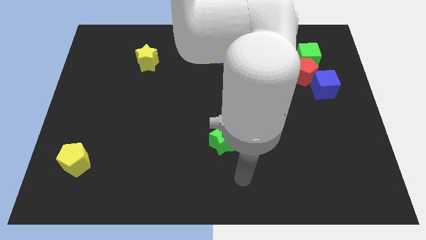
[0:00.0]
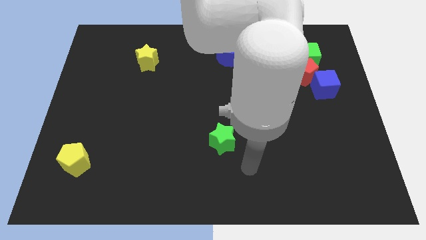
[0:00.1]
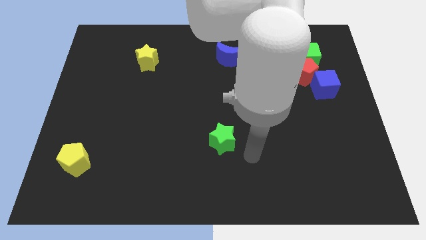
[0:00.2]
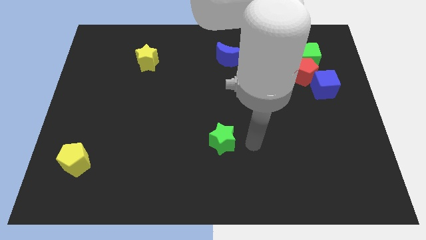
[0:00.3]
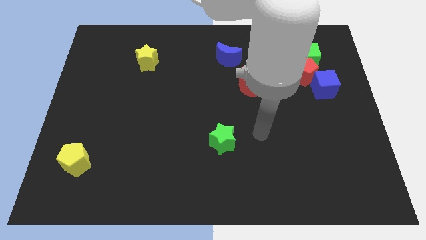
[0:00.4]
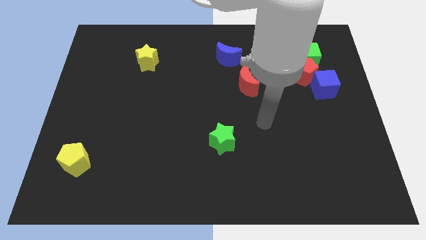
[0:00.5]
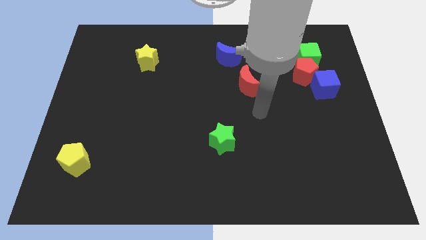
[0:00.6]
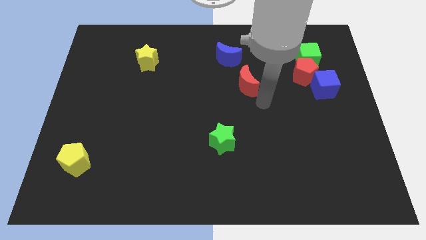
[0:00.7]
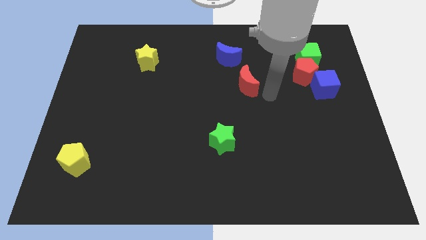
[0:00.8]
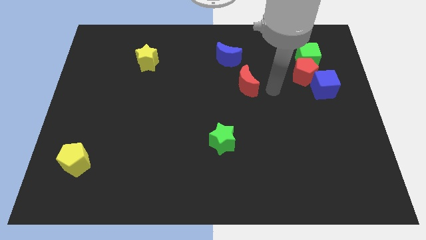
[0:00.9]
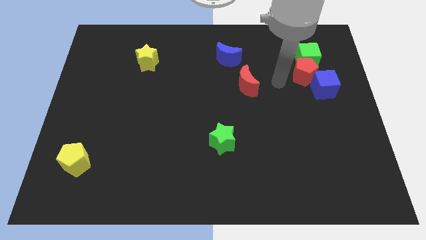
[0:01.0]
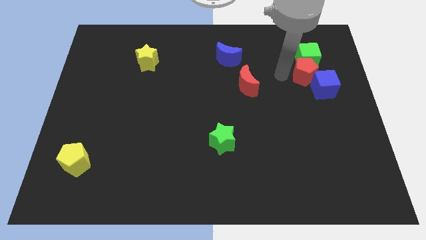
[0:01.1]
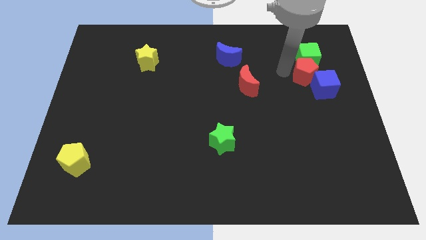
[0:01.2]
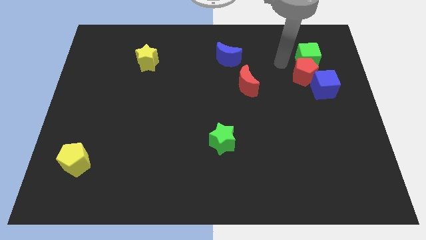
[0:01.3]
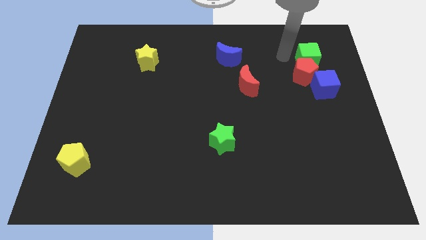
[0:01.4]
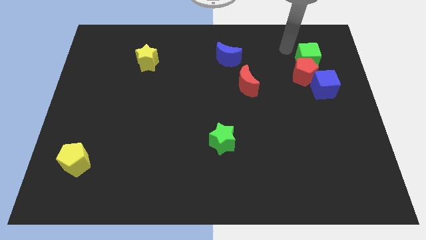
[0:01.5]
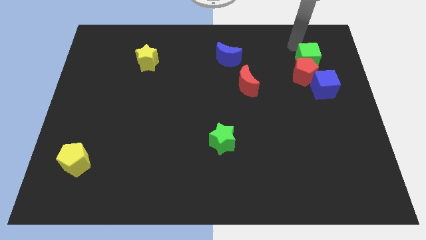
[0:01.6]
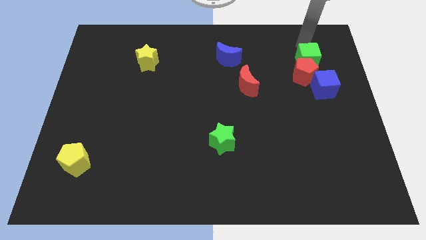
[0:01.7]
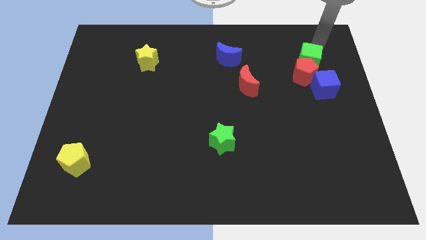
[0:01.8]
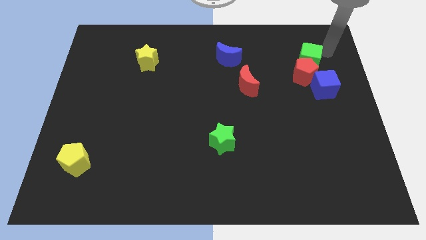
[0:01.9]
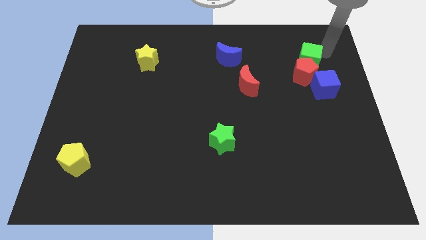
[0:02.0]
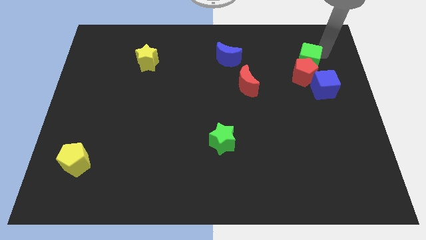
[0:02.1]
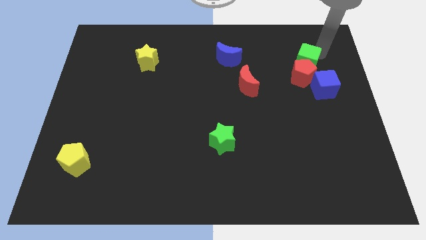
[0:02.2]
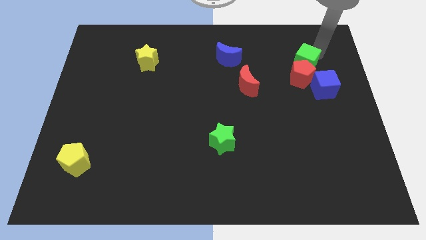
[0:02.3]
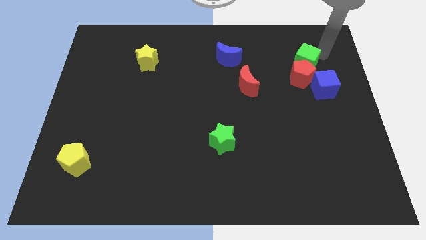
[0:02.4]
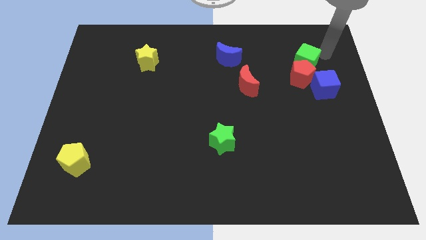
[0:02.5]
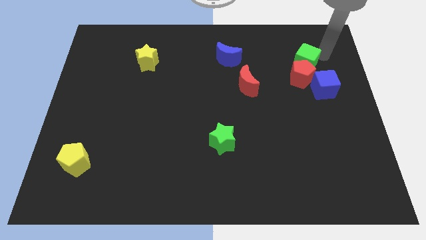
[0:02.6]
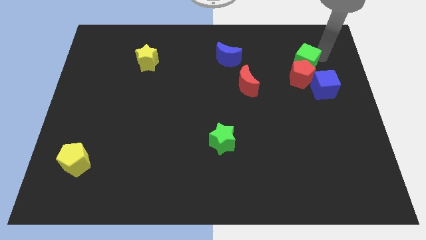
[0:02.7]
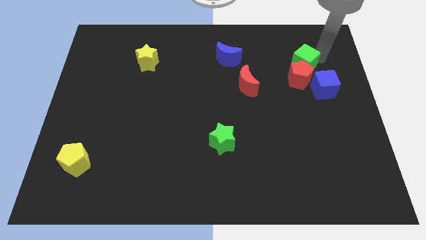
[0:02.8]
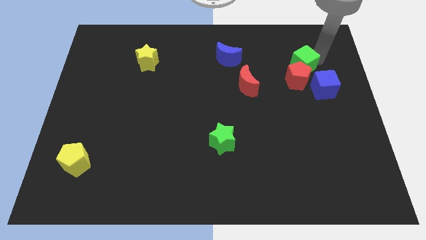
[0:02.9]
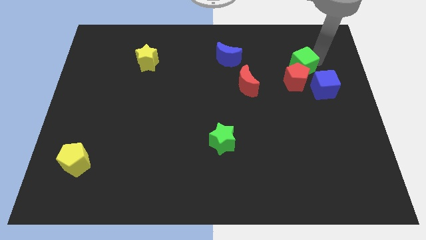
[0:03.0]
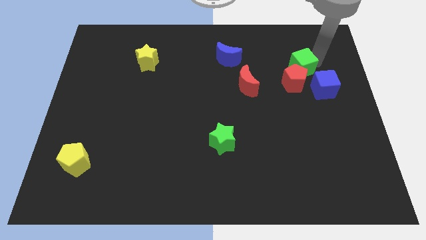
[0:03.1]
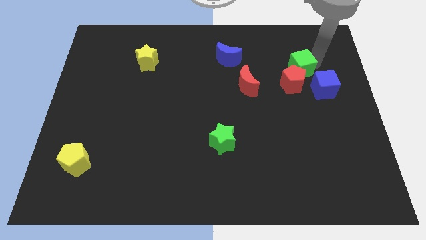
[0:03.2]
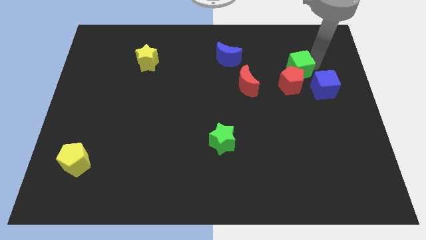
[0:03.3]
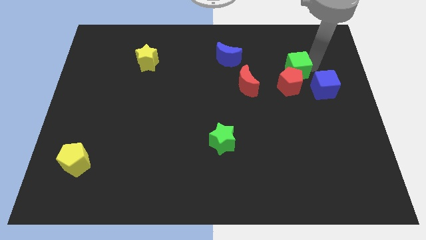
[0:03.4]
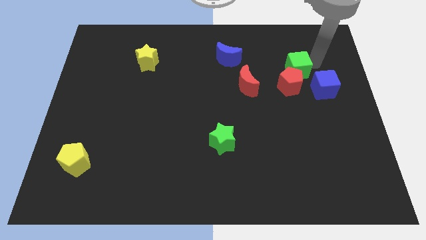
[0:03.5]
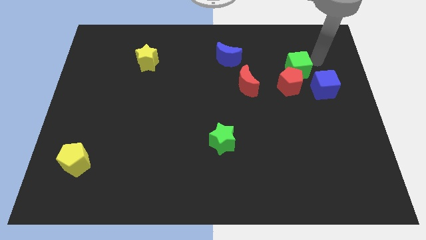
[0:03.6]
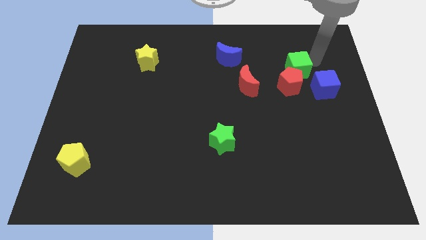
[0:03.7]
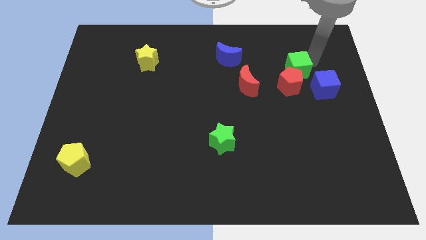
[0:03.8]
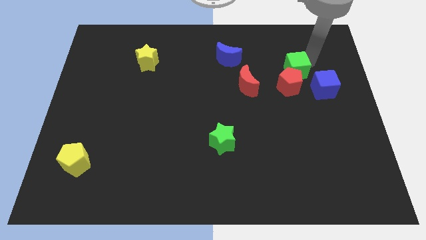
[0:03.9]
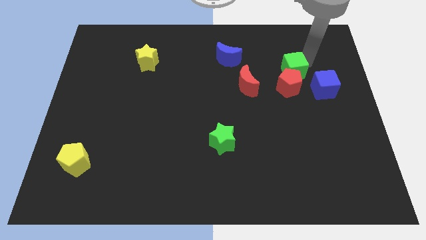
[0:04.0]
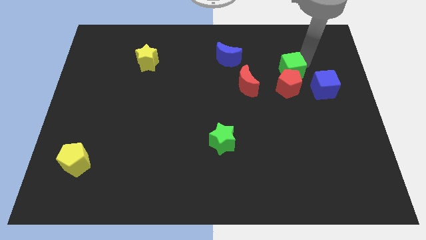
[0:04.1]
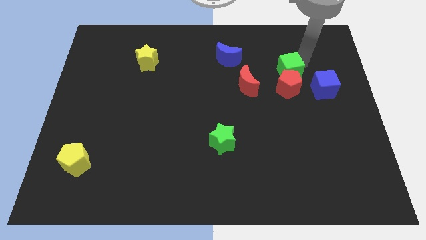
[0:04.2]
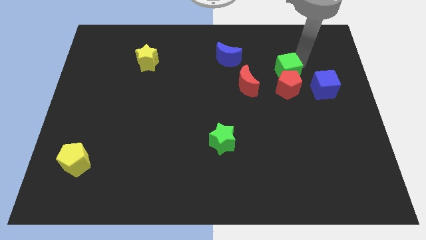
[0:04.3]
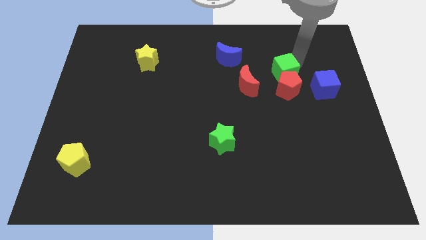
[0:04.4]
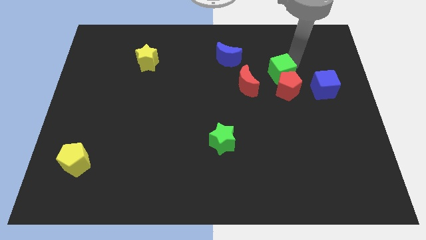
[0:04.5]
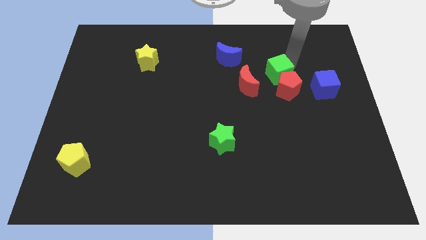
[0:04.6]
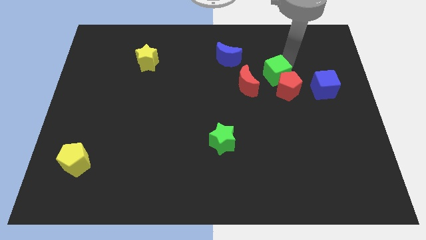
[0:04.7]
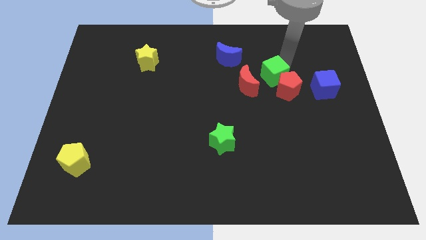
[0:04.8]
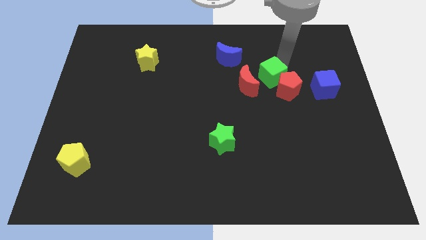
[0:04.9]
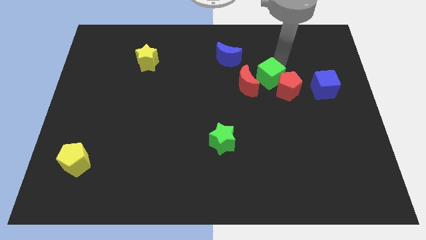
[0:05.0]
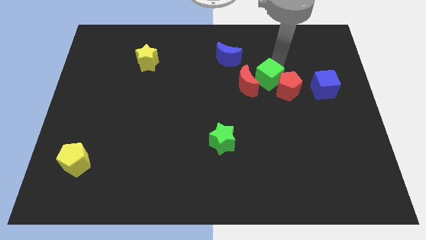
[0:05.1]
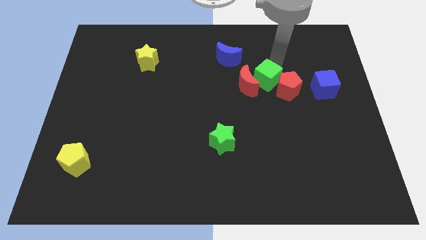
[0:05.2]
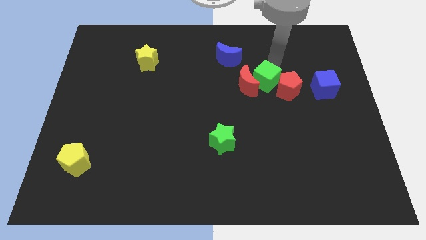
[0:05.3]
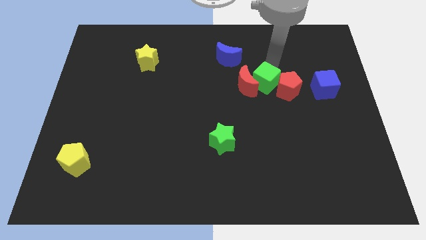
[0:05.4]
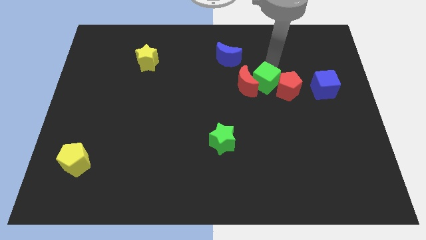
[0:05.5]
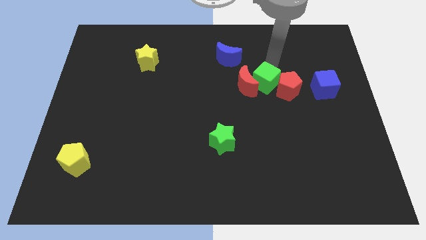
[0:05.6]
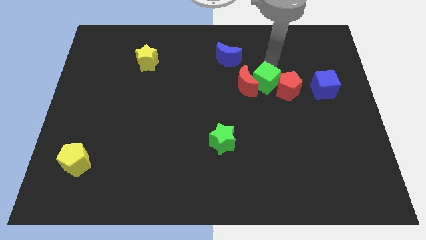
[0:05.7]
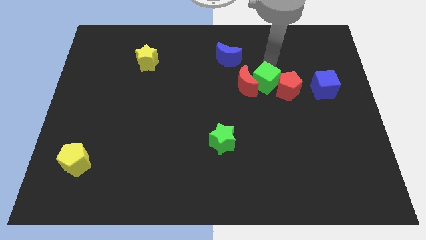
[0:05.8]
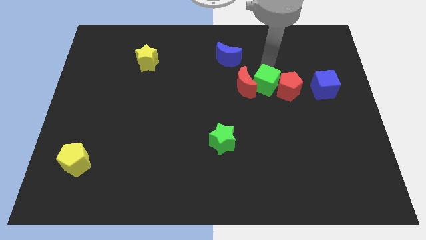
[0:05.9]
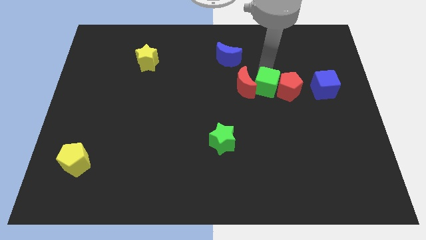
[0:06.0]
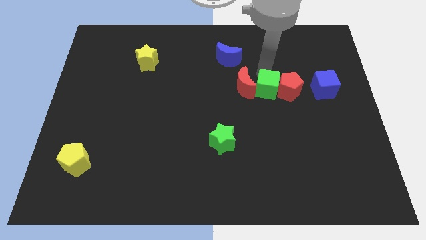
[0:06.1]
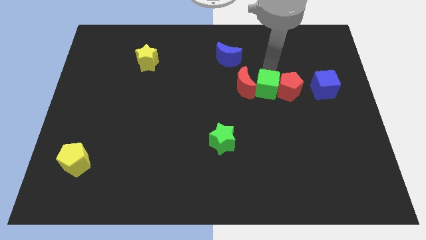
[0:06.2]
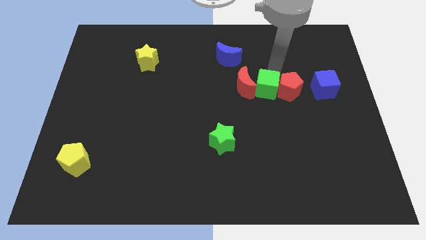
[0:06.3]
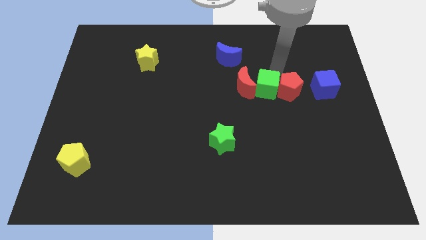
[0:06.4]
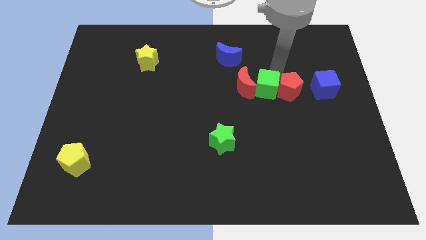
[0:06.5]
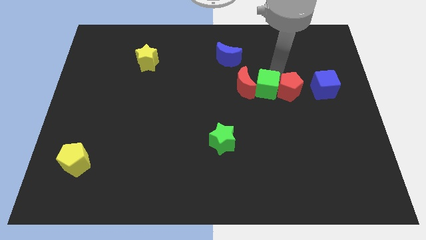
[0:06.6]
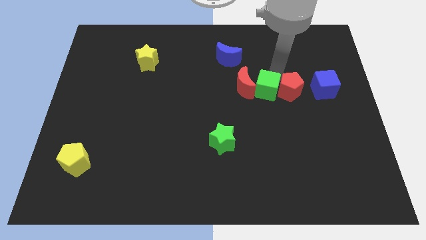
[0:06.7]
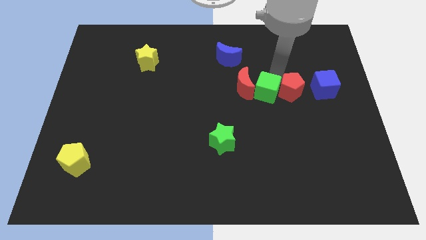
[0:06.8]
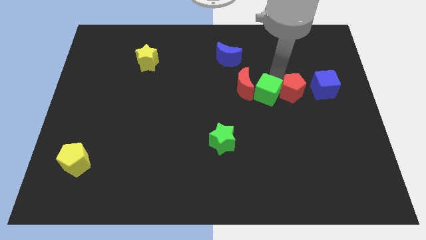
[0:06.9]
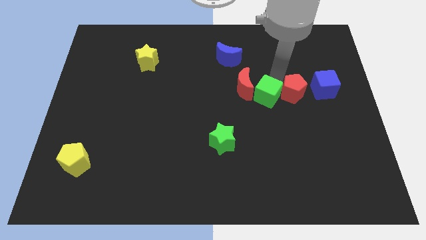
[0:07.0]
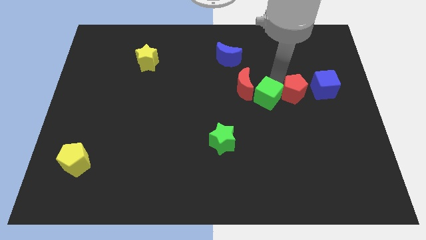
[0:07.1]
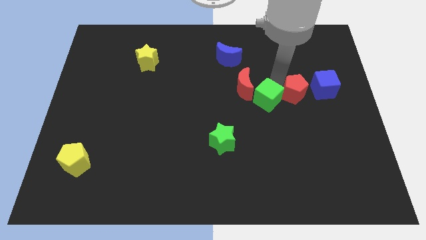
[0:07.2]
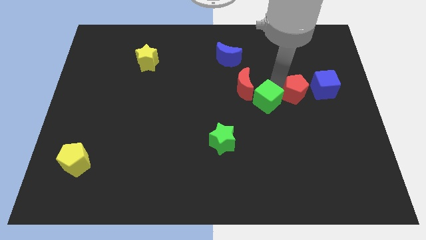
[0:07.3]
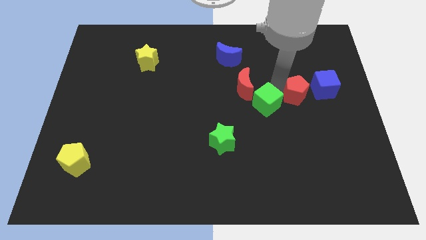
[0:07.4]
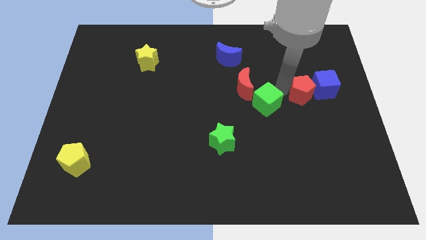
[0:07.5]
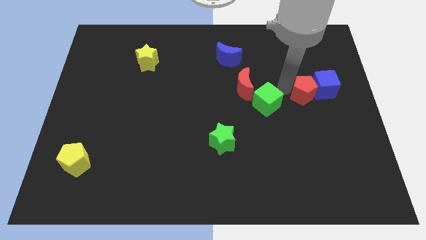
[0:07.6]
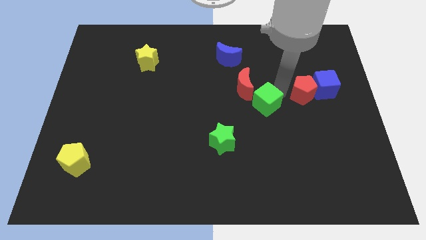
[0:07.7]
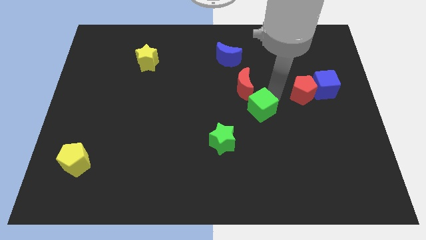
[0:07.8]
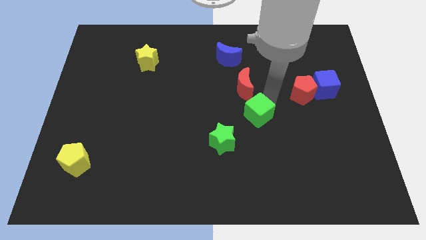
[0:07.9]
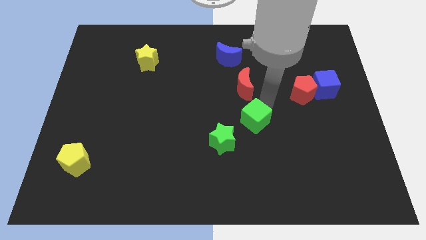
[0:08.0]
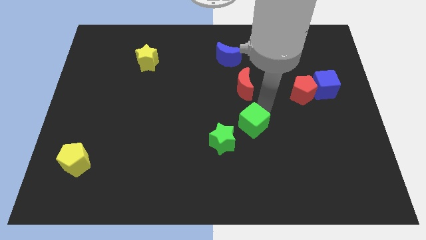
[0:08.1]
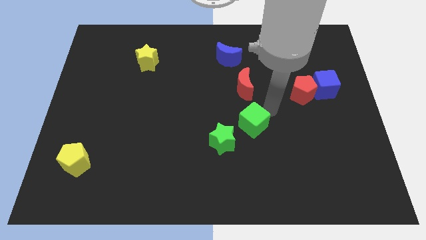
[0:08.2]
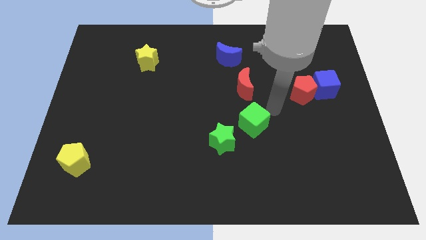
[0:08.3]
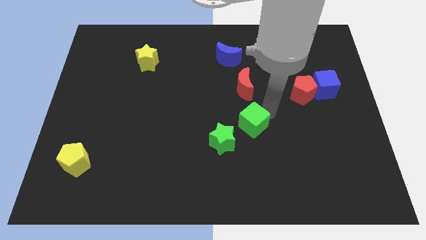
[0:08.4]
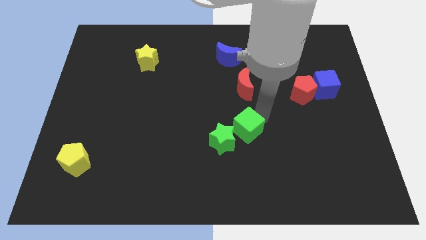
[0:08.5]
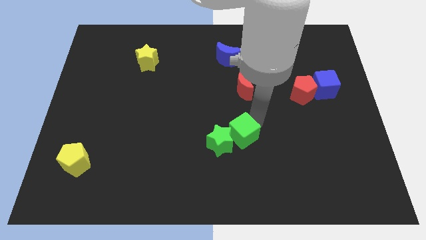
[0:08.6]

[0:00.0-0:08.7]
slide the green cube towards the green star
